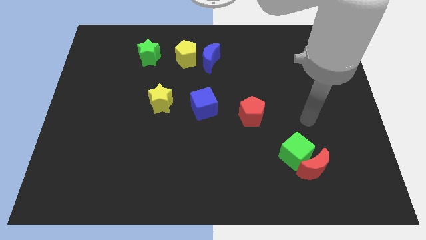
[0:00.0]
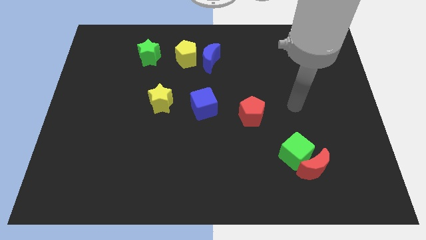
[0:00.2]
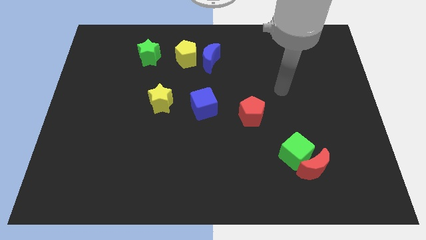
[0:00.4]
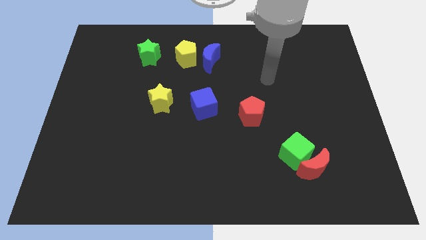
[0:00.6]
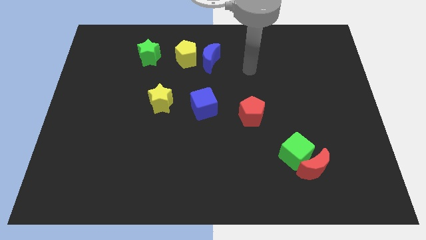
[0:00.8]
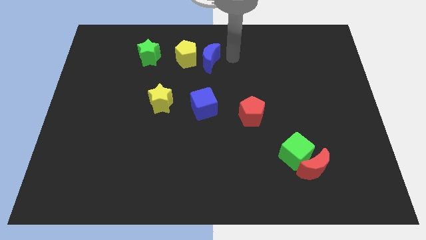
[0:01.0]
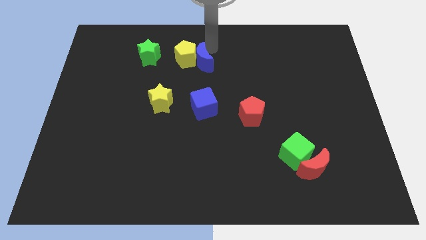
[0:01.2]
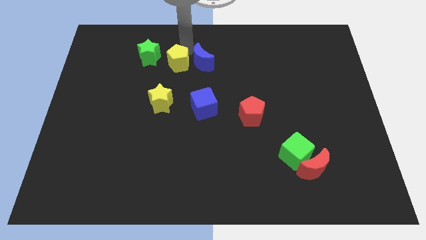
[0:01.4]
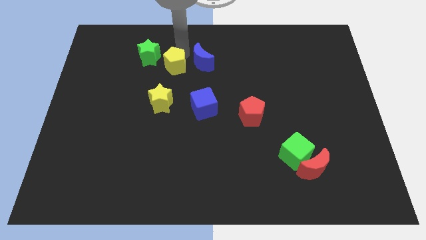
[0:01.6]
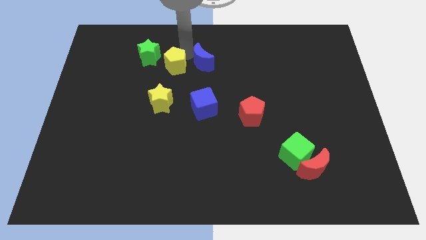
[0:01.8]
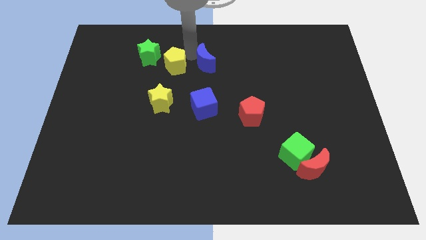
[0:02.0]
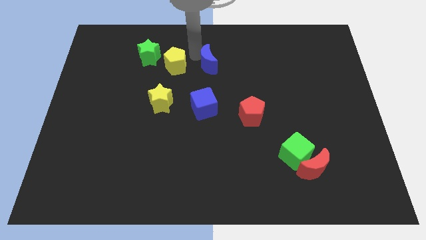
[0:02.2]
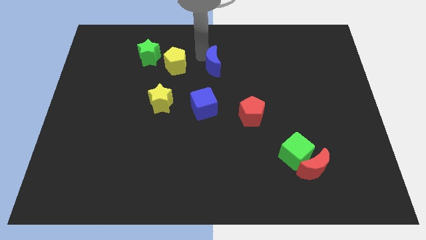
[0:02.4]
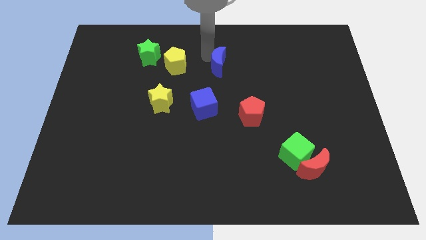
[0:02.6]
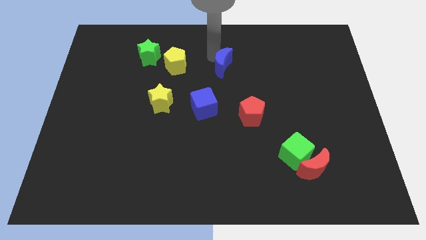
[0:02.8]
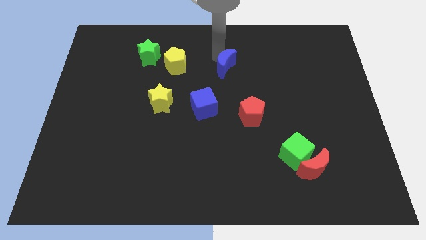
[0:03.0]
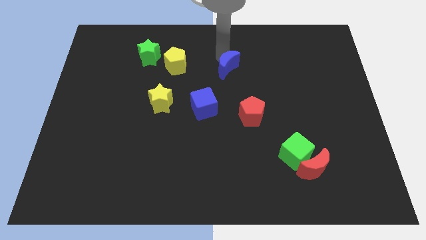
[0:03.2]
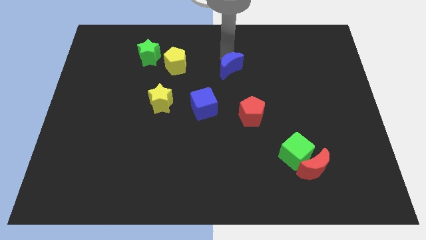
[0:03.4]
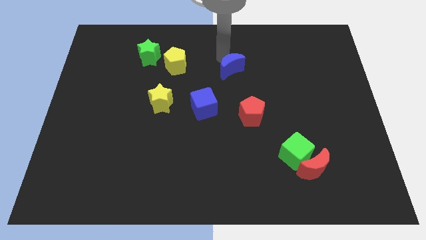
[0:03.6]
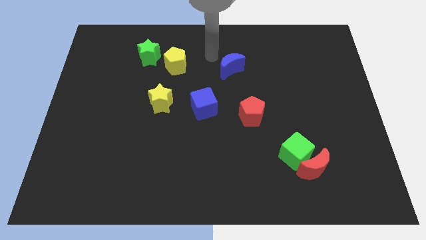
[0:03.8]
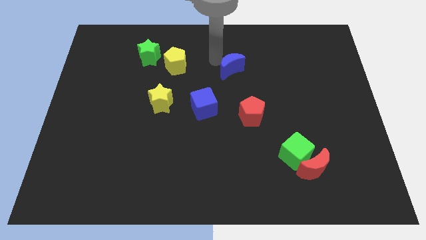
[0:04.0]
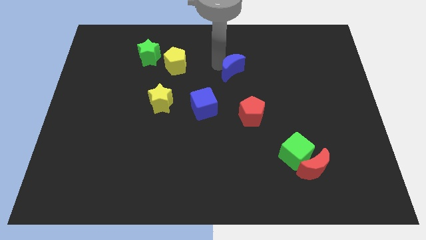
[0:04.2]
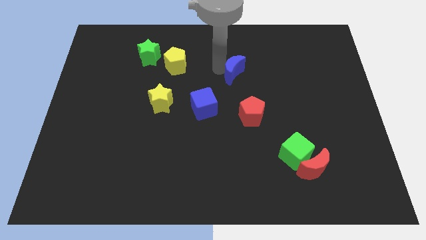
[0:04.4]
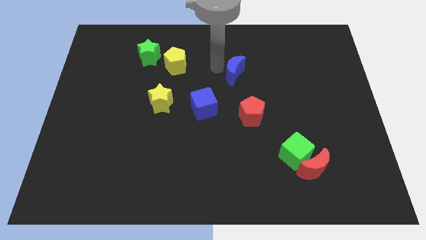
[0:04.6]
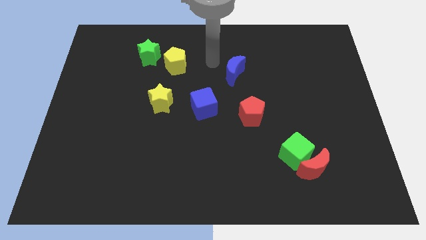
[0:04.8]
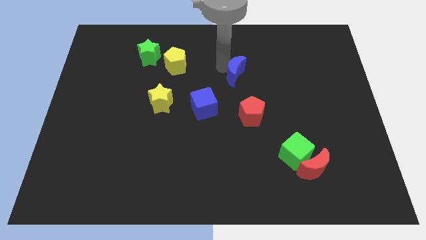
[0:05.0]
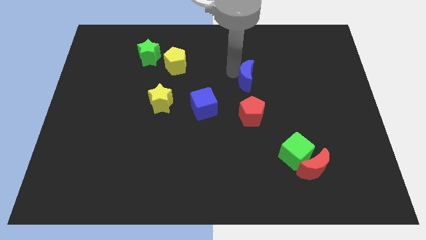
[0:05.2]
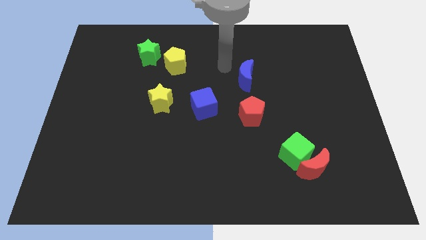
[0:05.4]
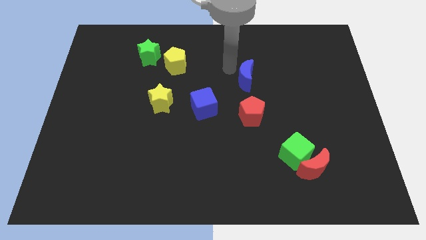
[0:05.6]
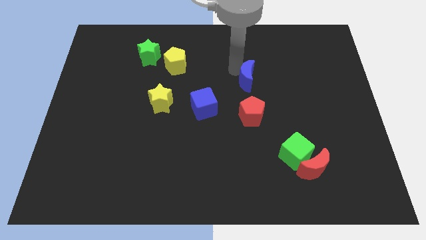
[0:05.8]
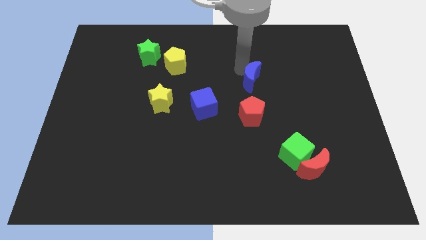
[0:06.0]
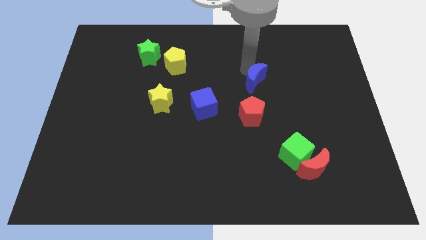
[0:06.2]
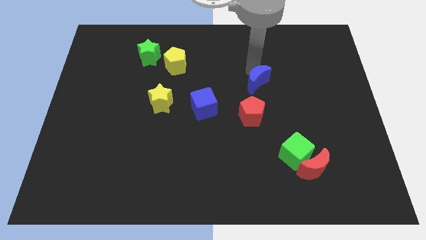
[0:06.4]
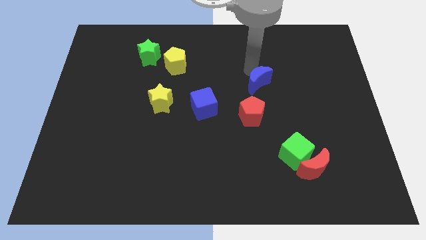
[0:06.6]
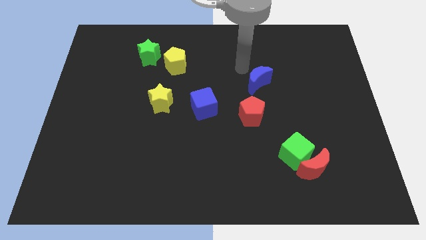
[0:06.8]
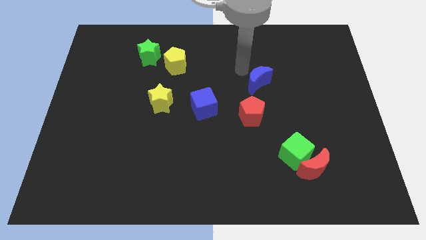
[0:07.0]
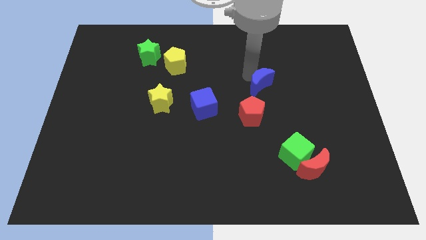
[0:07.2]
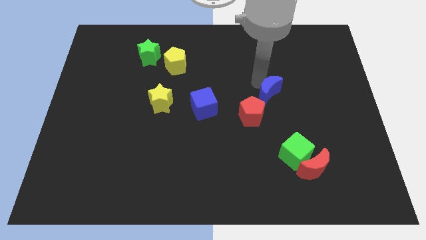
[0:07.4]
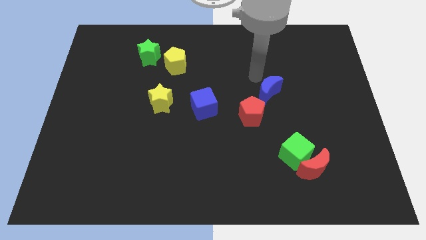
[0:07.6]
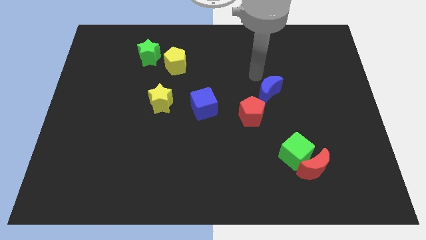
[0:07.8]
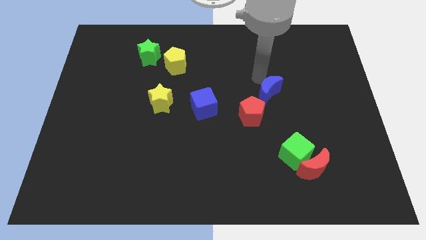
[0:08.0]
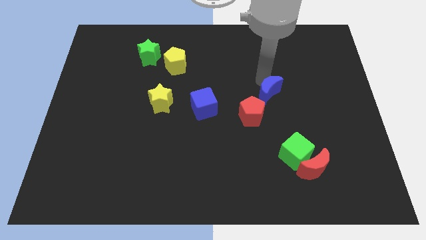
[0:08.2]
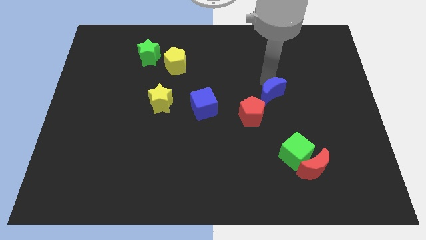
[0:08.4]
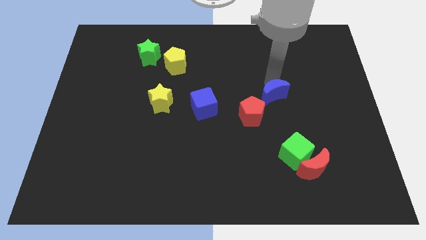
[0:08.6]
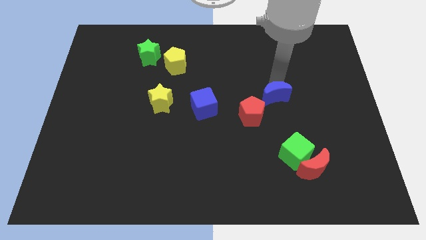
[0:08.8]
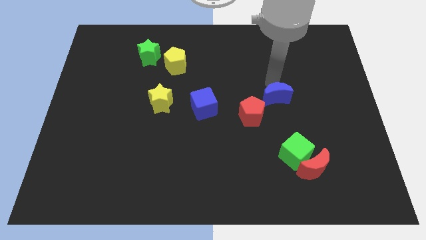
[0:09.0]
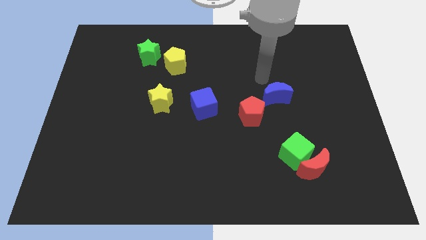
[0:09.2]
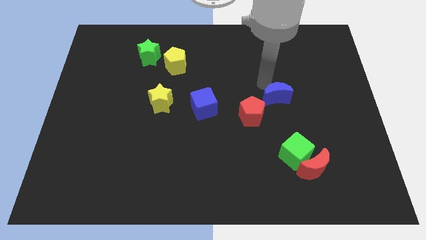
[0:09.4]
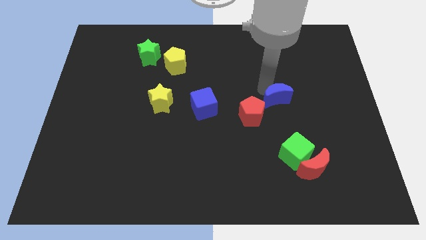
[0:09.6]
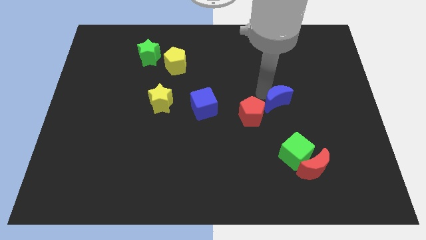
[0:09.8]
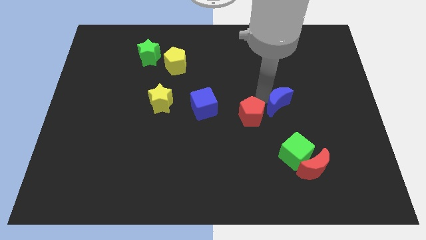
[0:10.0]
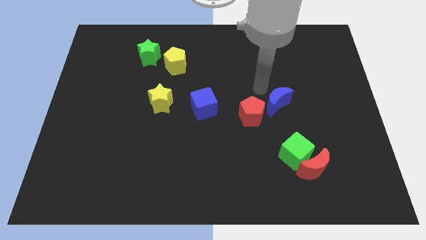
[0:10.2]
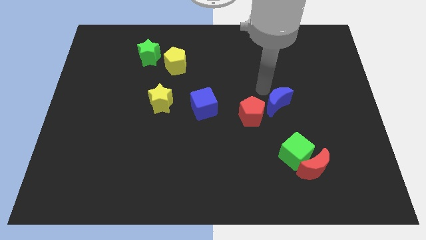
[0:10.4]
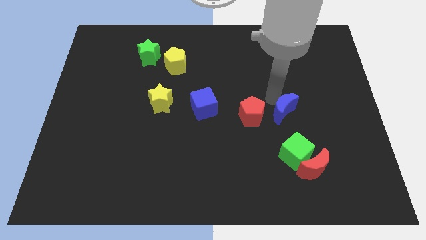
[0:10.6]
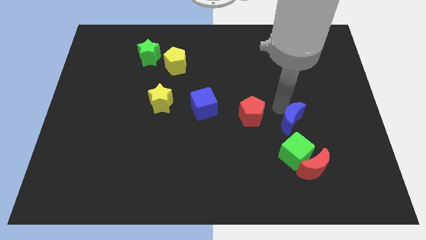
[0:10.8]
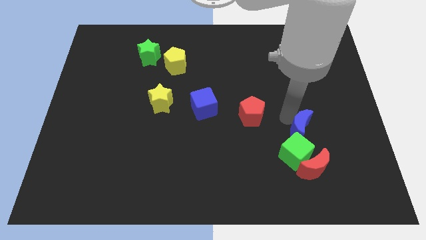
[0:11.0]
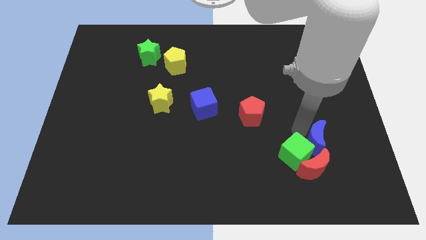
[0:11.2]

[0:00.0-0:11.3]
push the blue moon to the right of the green cube

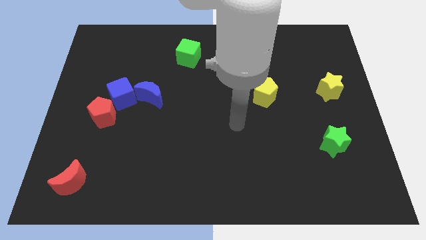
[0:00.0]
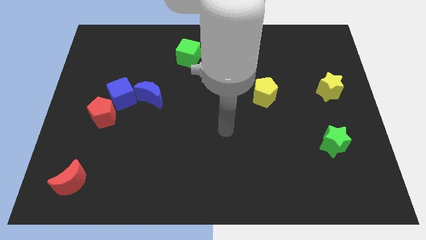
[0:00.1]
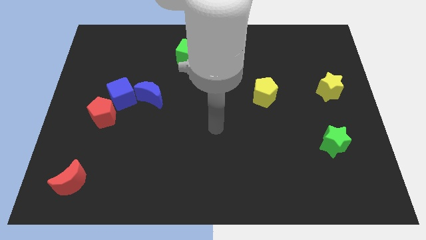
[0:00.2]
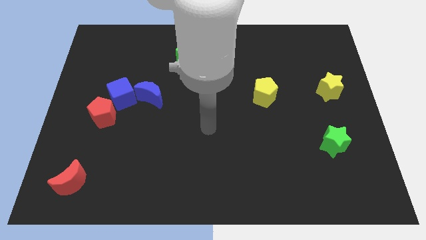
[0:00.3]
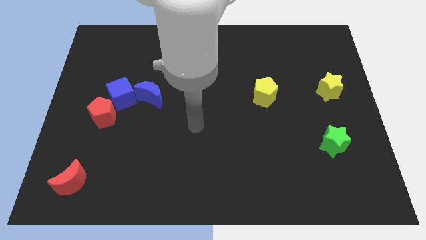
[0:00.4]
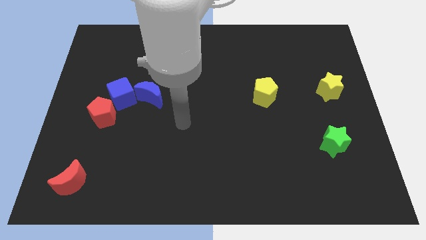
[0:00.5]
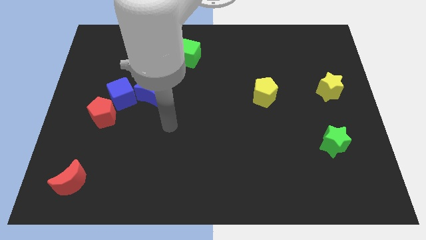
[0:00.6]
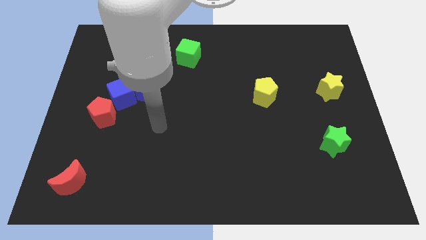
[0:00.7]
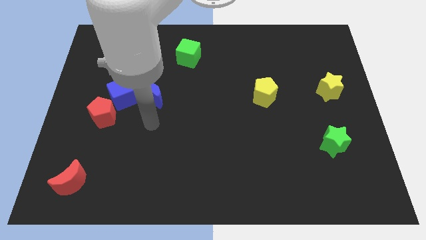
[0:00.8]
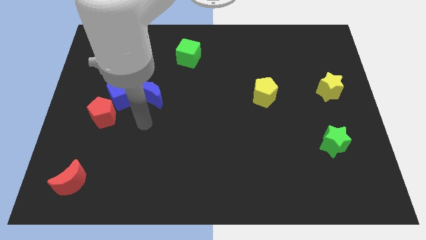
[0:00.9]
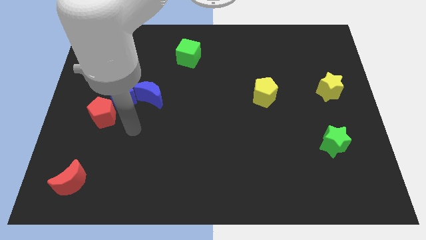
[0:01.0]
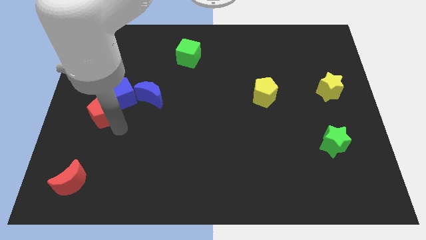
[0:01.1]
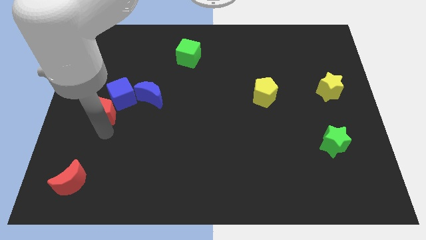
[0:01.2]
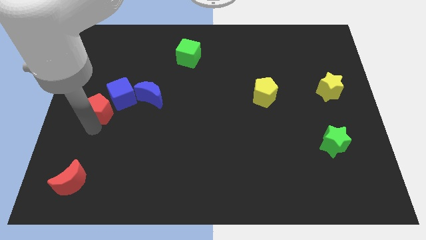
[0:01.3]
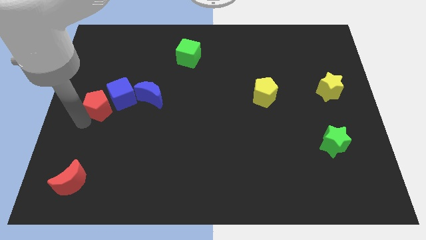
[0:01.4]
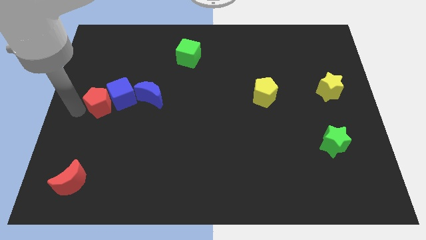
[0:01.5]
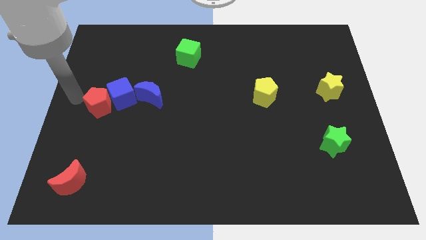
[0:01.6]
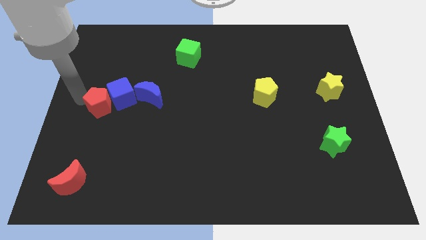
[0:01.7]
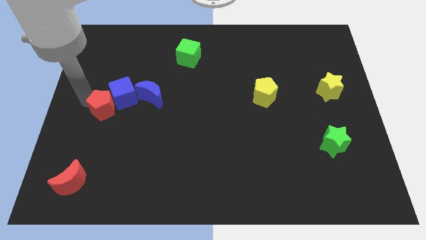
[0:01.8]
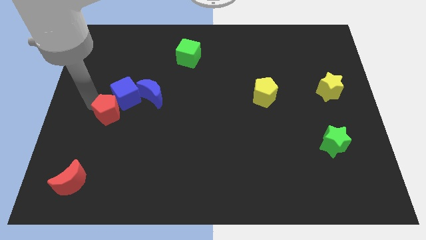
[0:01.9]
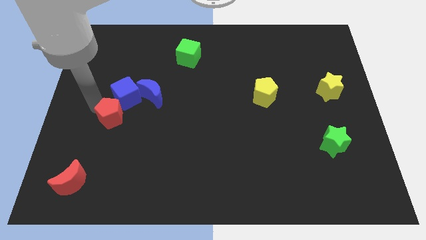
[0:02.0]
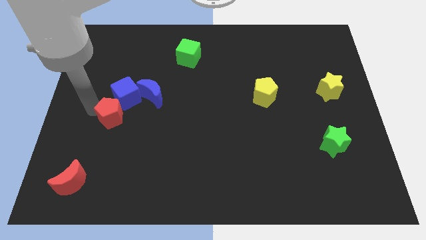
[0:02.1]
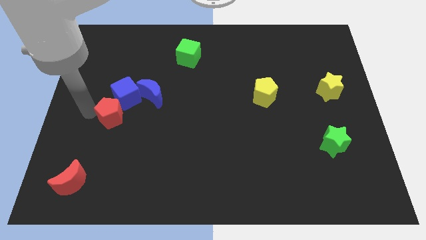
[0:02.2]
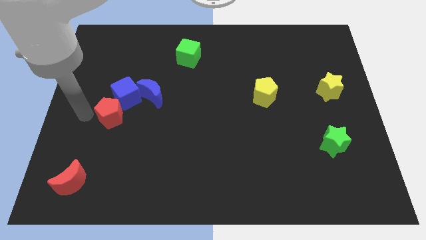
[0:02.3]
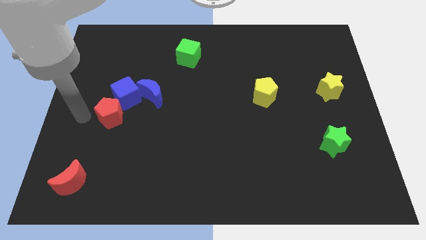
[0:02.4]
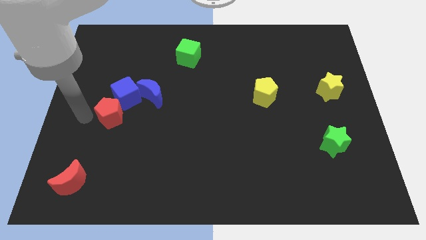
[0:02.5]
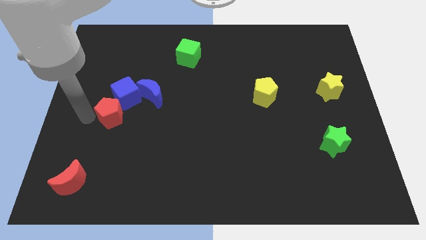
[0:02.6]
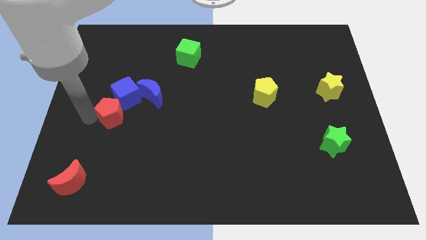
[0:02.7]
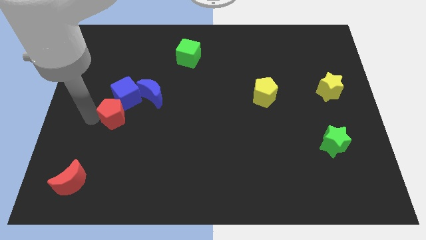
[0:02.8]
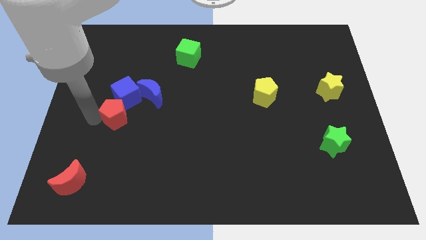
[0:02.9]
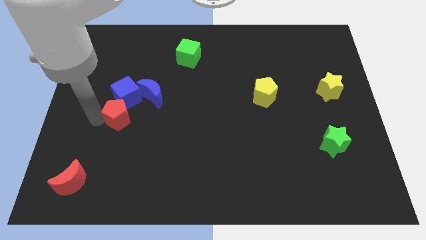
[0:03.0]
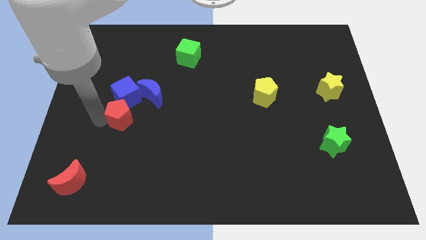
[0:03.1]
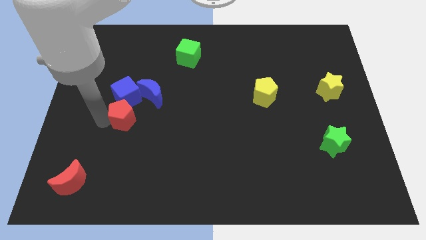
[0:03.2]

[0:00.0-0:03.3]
slide the red pentagon to the bottom right side of the blue cube
